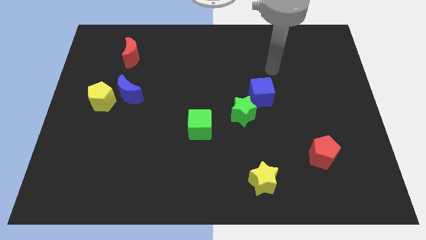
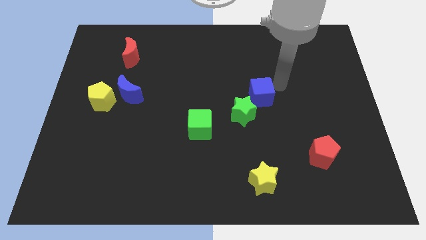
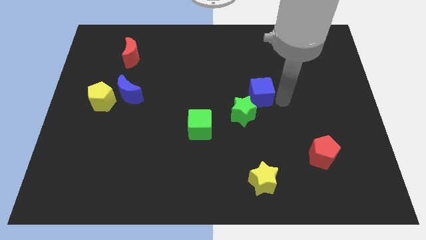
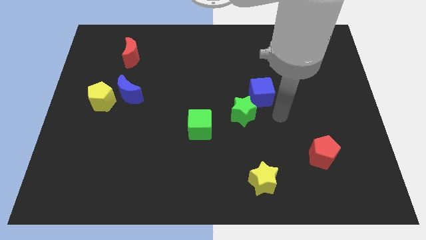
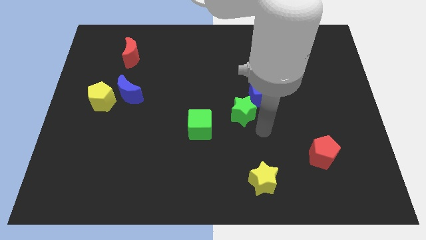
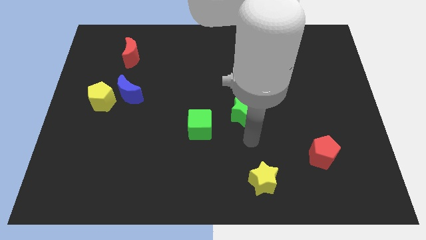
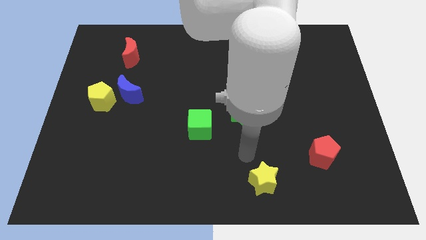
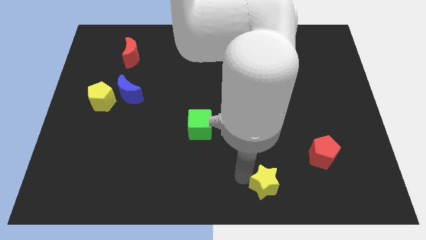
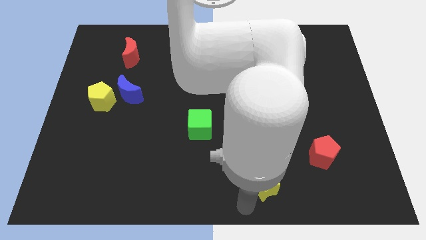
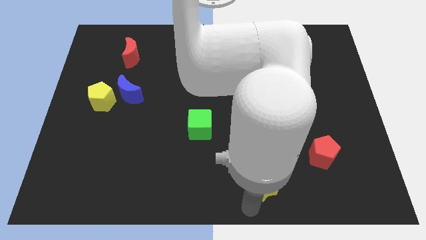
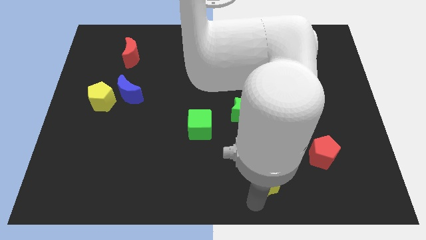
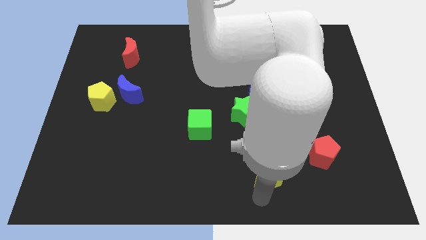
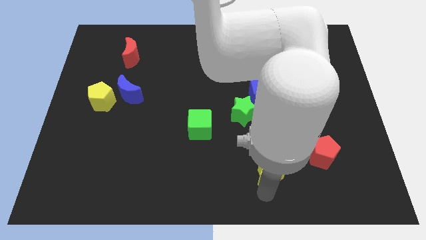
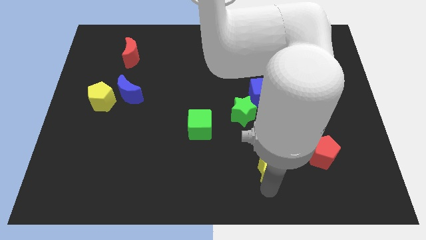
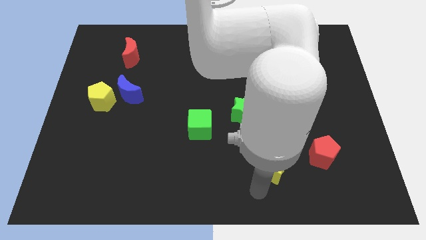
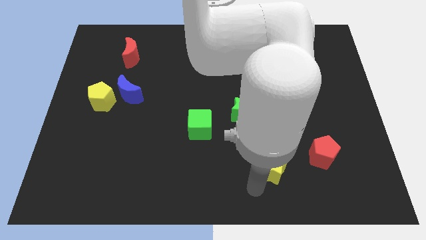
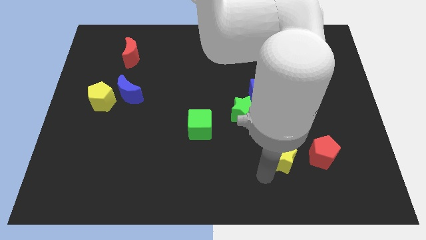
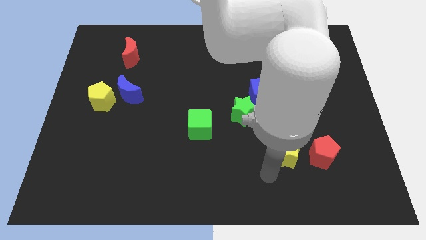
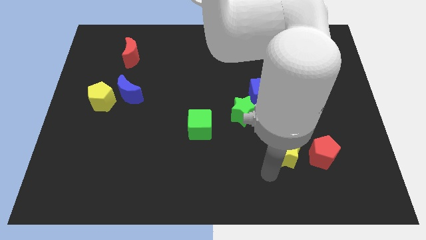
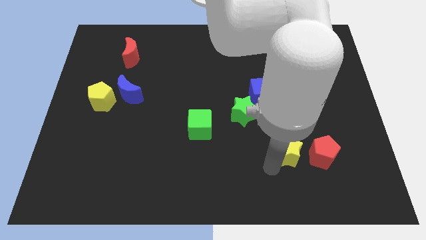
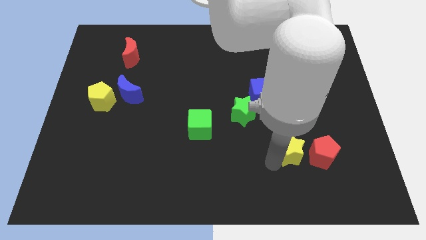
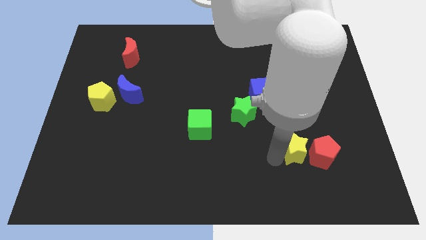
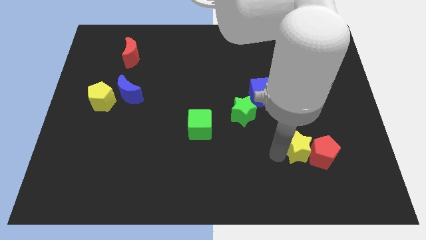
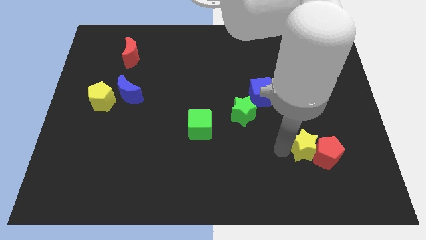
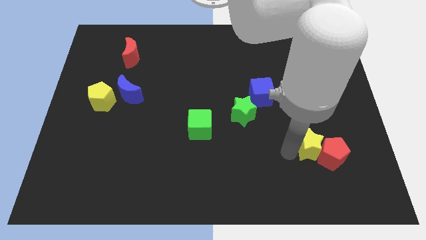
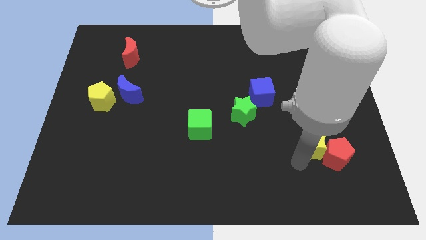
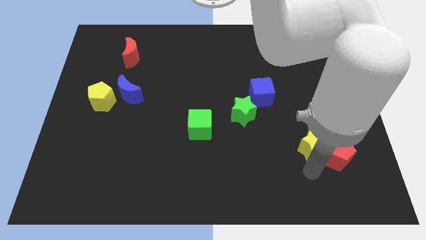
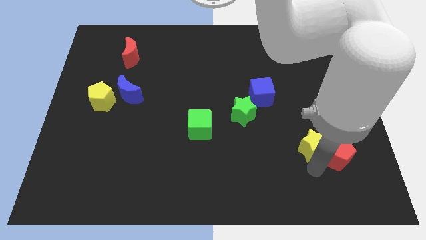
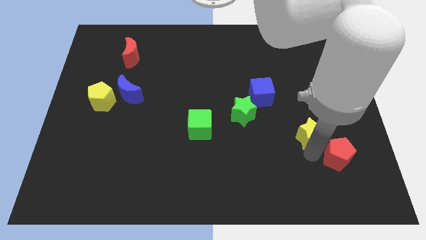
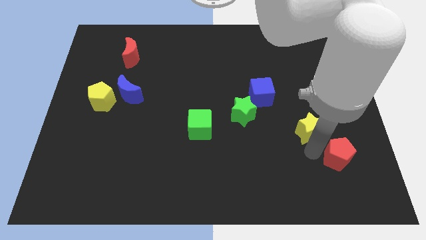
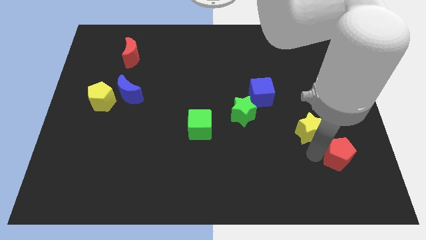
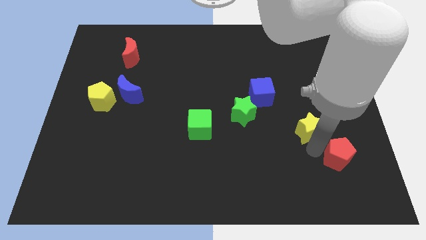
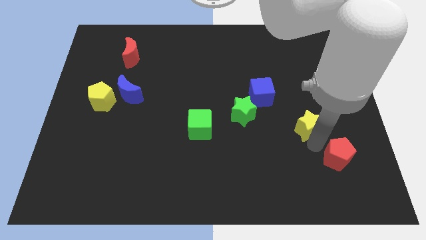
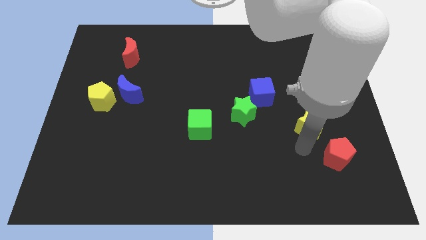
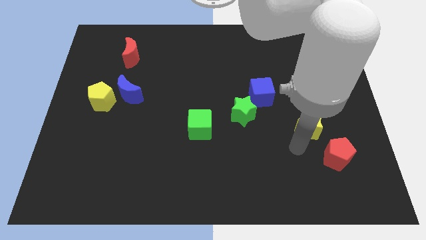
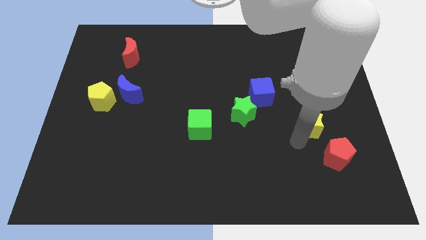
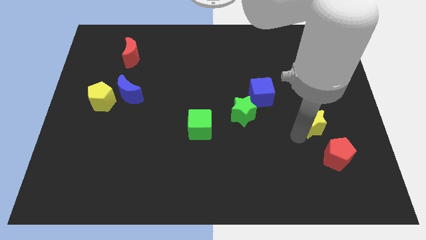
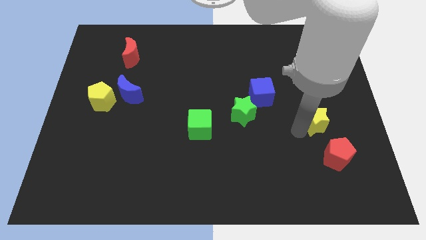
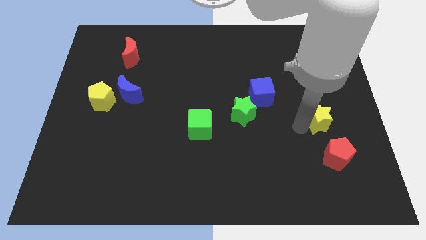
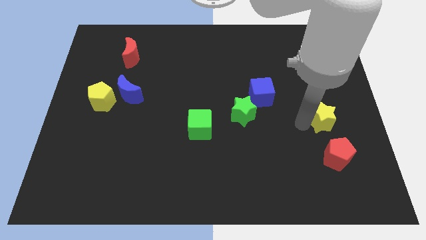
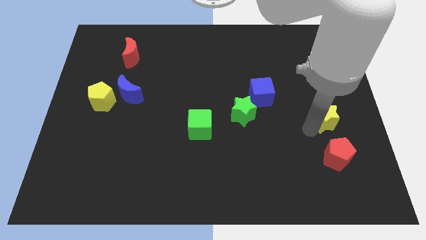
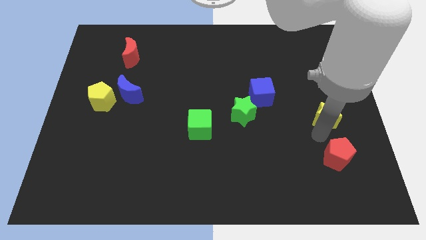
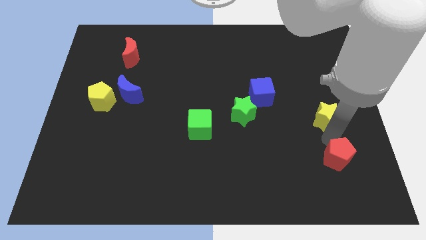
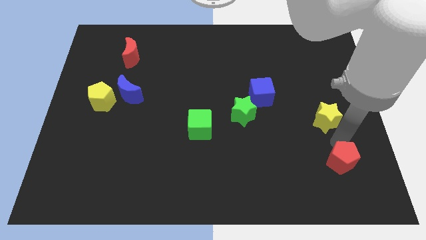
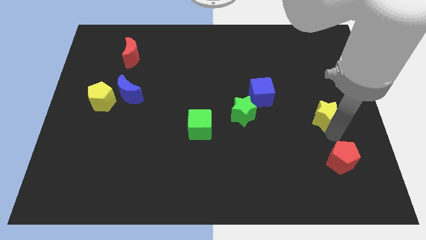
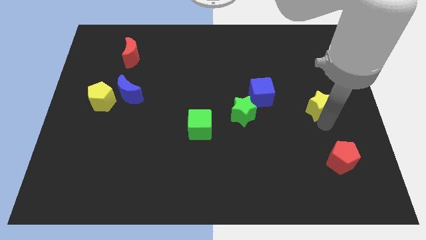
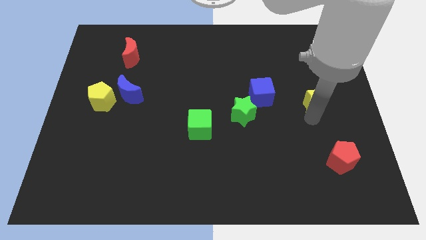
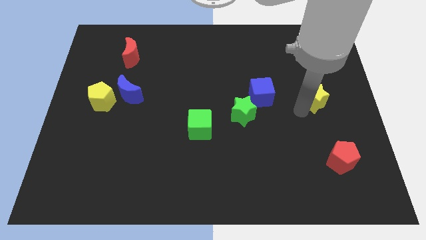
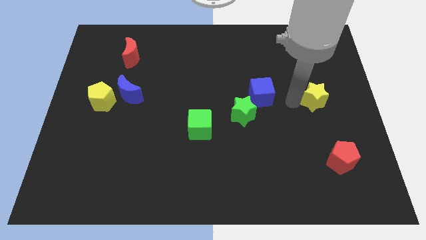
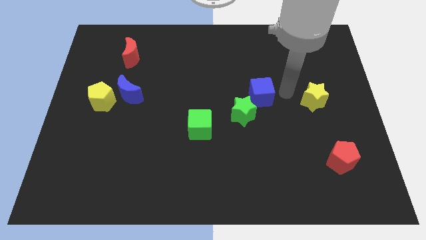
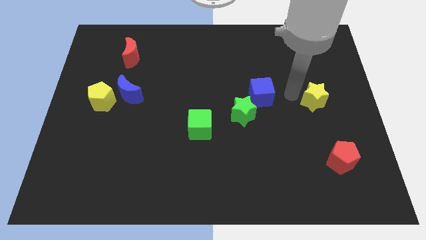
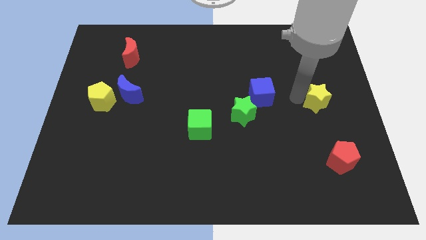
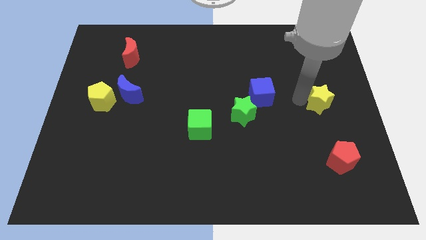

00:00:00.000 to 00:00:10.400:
push the yellow star to the right side of the board

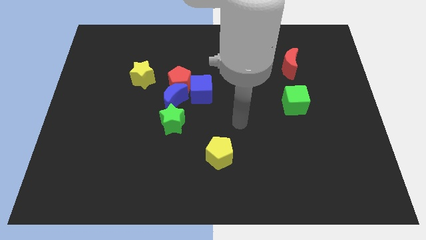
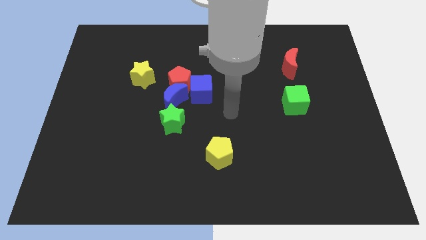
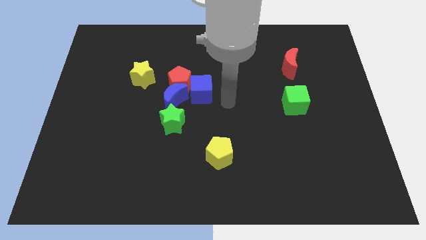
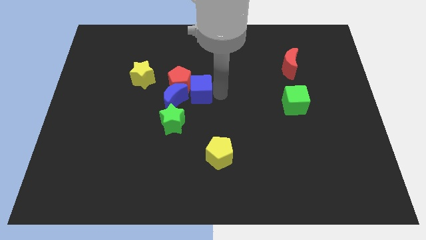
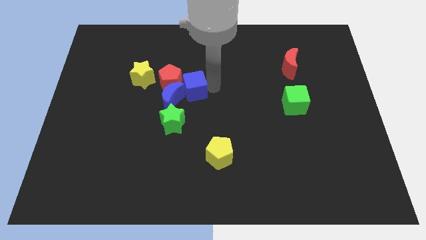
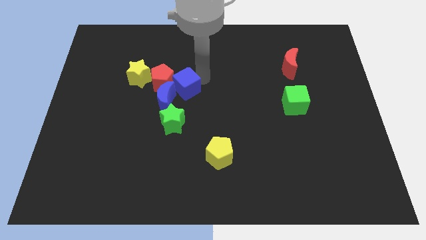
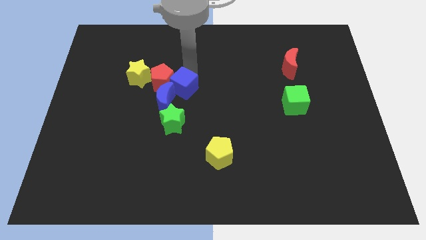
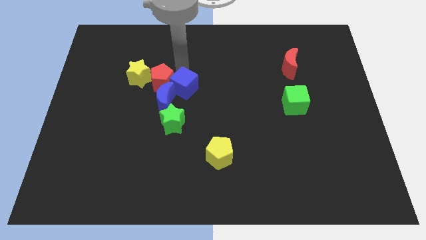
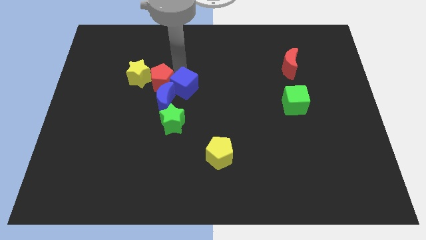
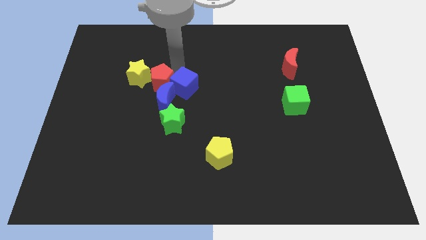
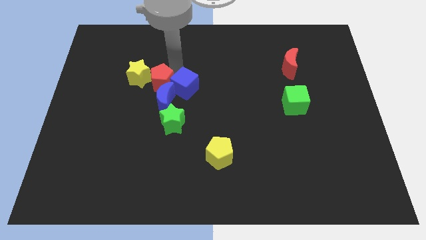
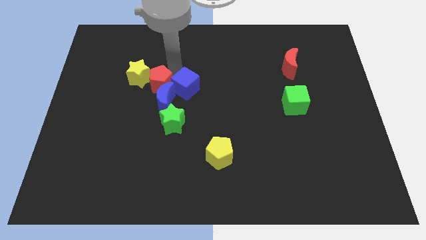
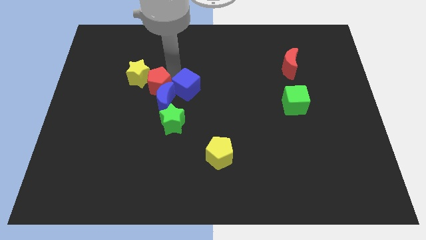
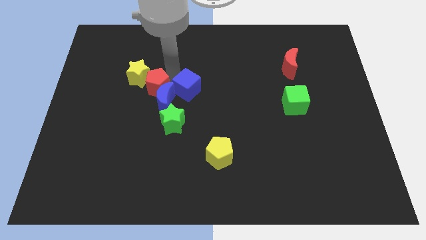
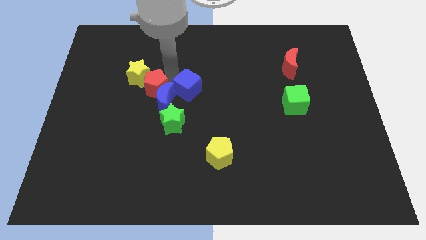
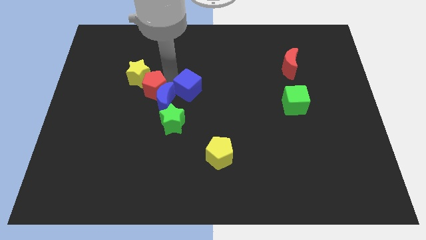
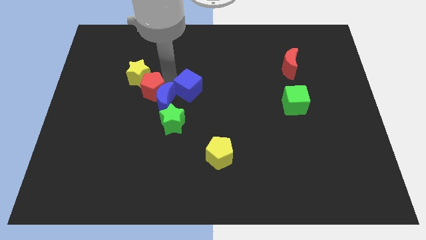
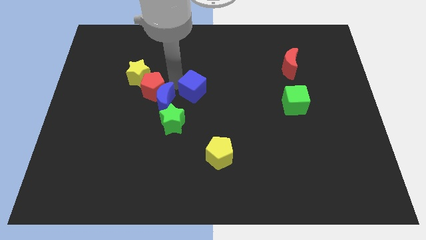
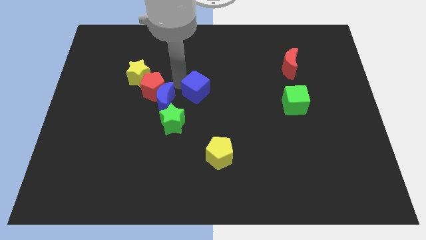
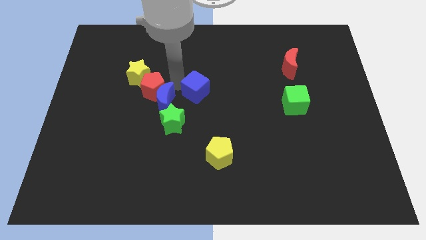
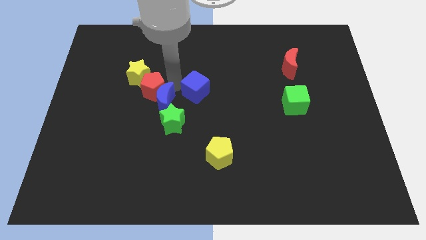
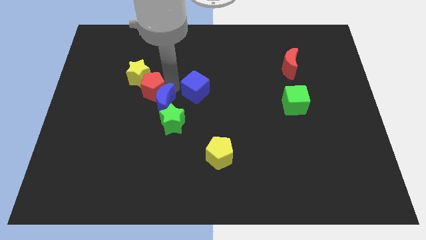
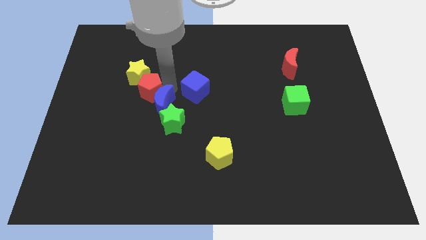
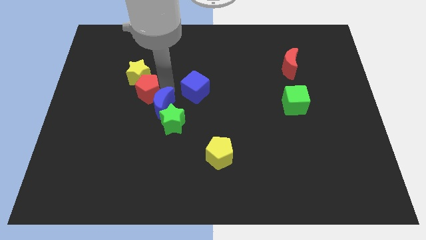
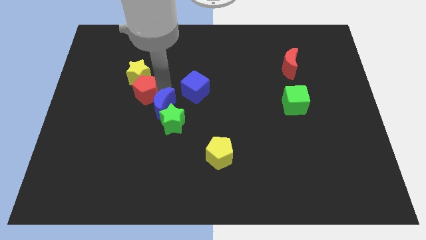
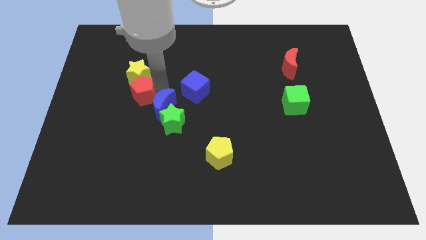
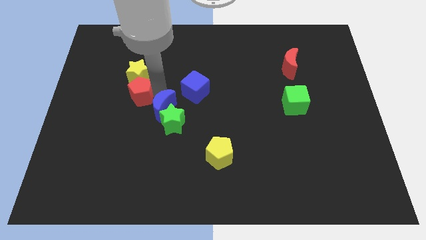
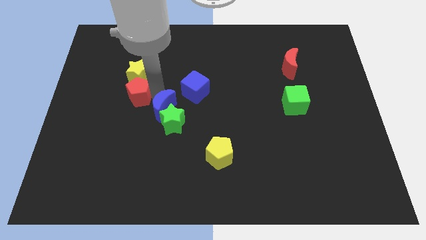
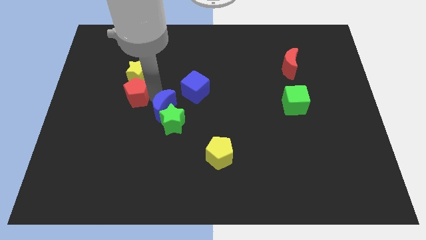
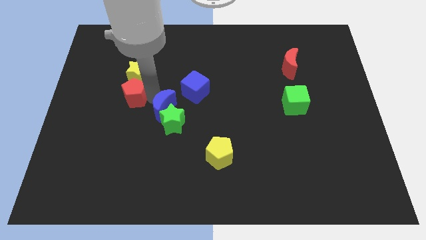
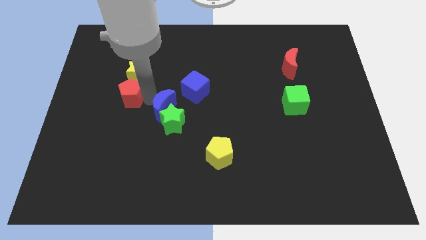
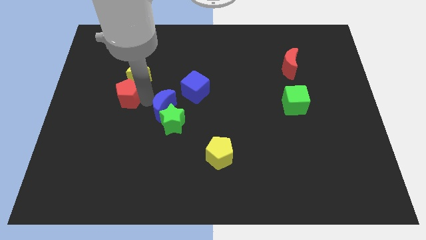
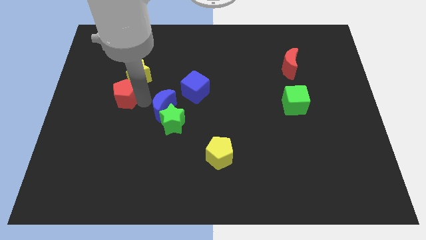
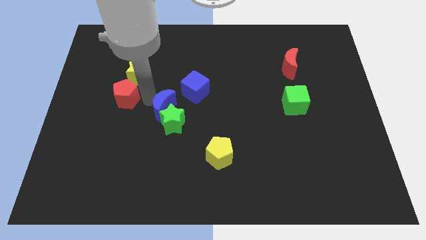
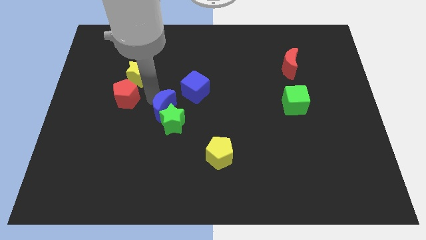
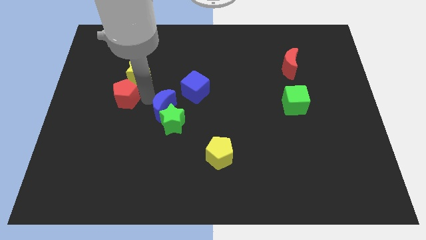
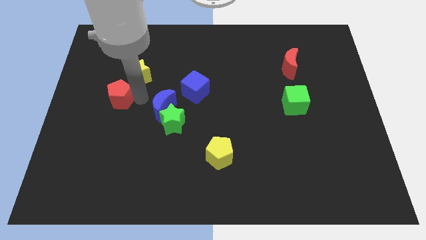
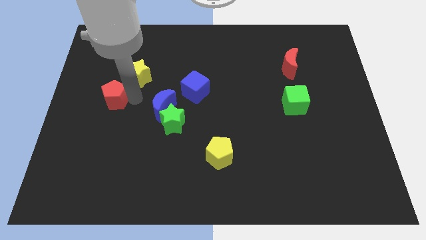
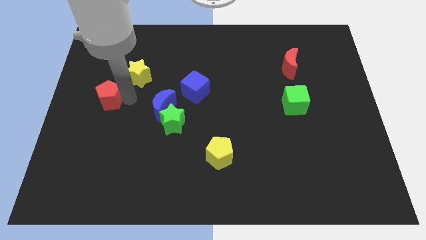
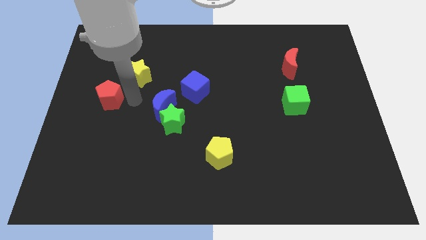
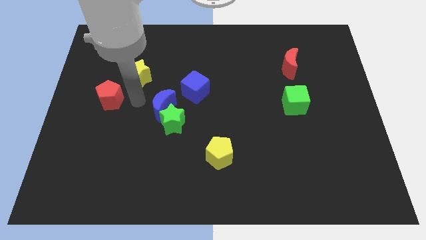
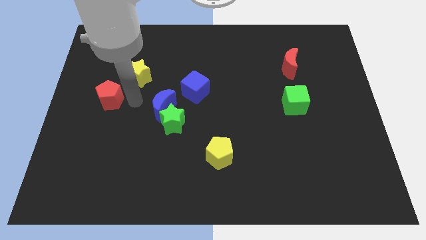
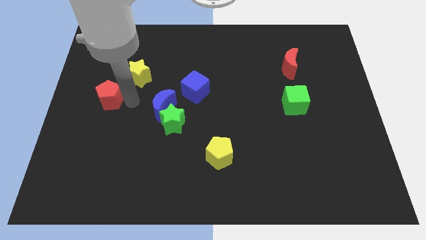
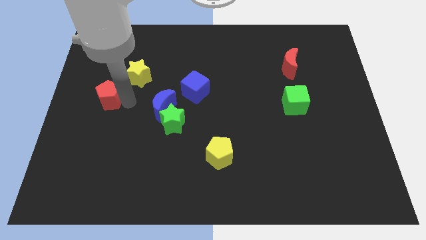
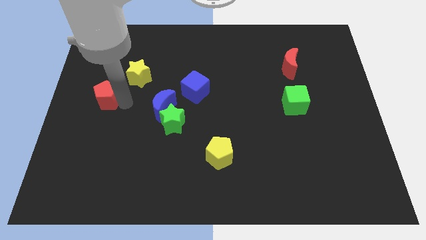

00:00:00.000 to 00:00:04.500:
move the red pentagon to the left side
